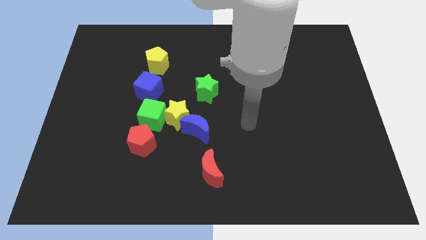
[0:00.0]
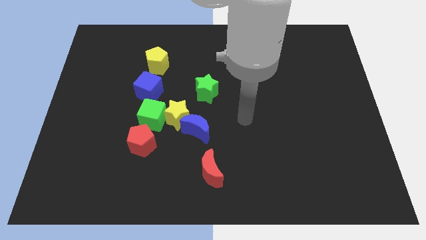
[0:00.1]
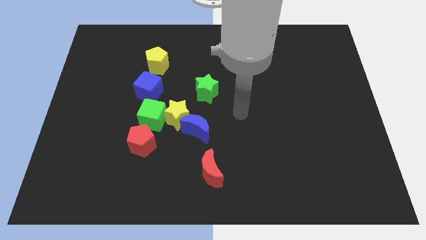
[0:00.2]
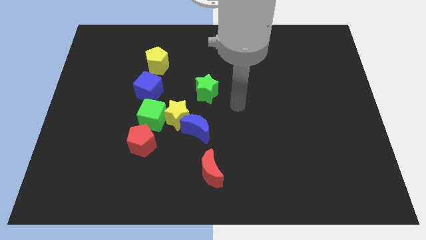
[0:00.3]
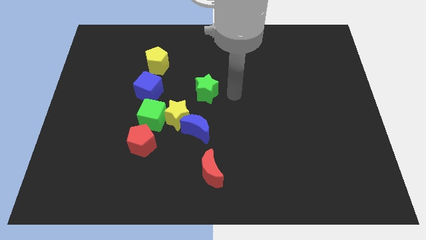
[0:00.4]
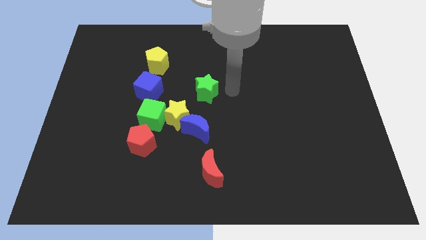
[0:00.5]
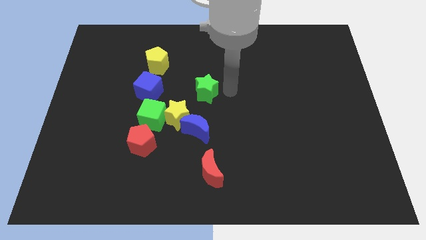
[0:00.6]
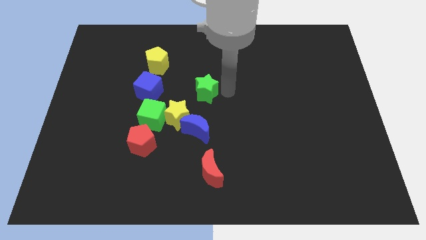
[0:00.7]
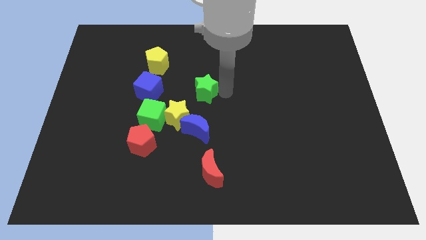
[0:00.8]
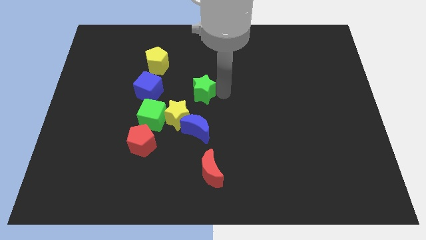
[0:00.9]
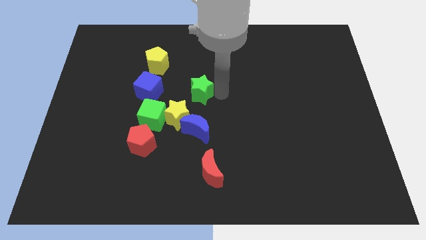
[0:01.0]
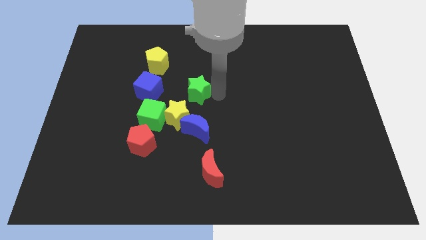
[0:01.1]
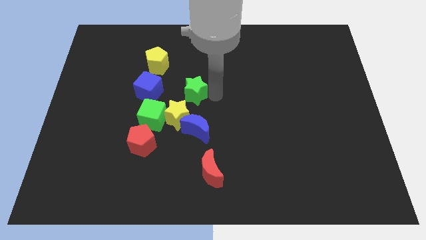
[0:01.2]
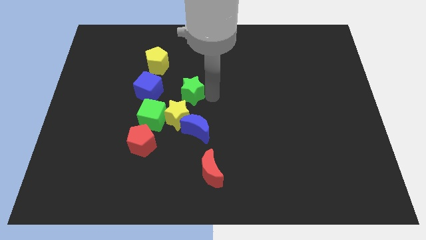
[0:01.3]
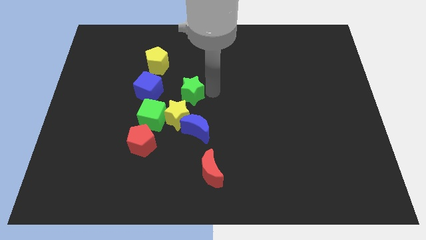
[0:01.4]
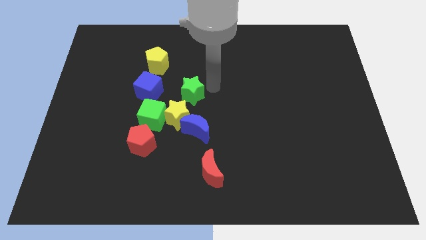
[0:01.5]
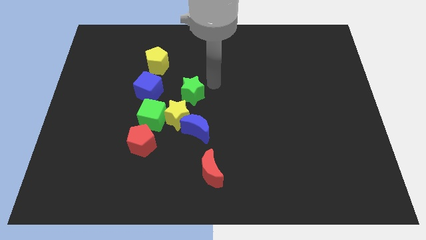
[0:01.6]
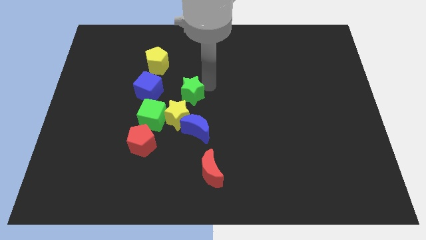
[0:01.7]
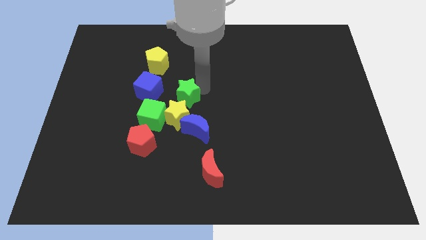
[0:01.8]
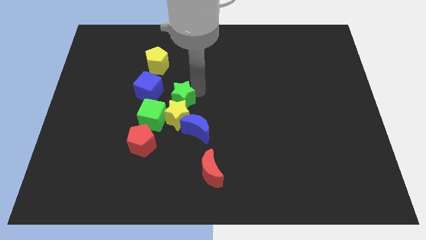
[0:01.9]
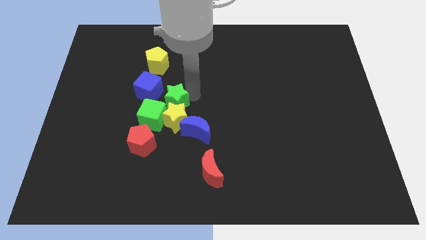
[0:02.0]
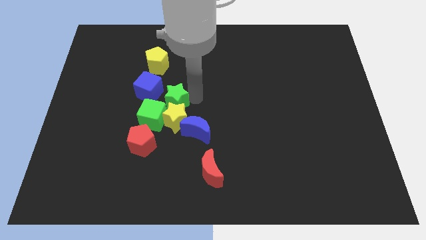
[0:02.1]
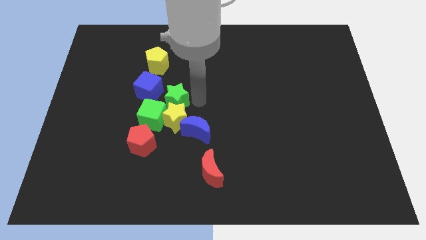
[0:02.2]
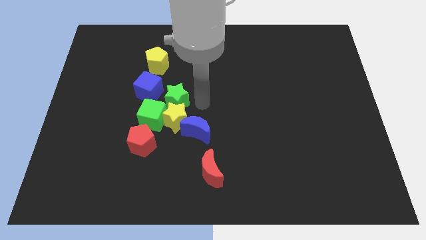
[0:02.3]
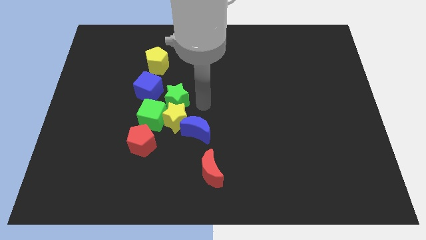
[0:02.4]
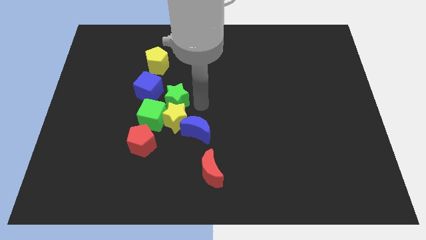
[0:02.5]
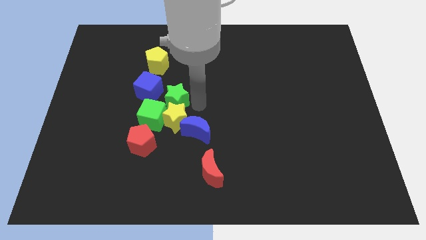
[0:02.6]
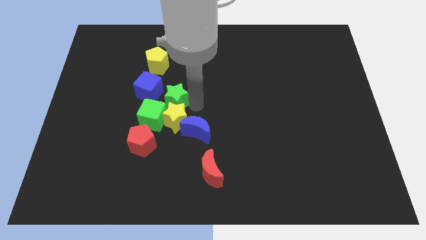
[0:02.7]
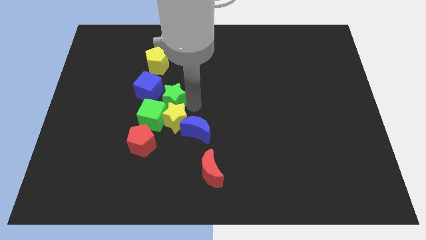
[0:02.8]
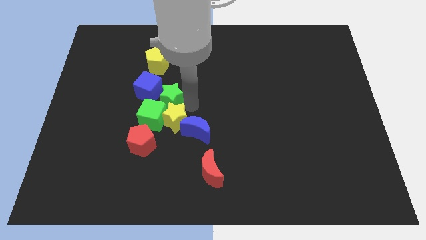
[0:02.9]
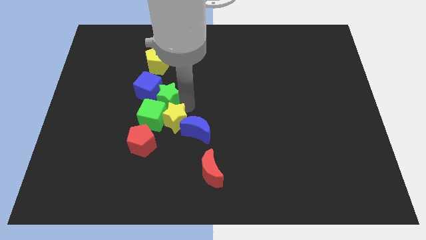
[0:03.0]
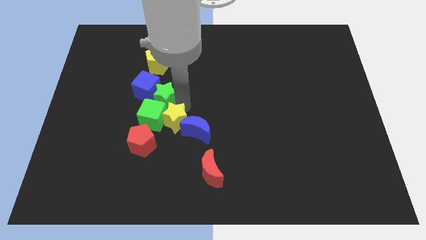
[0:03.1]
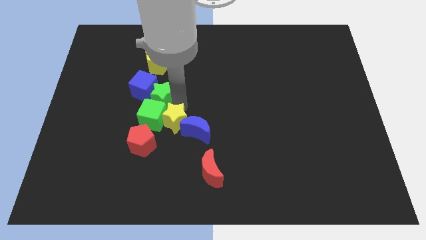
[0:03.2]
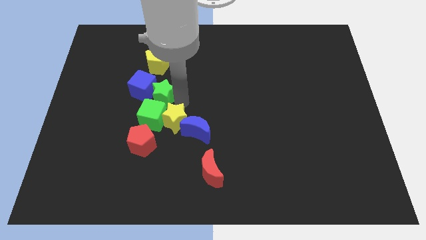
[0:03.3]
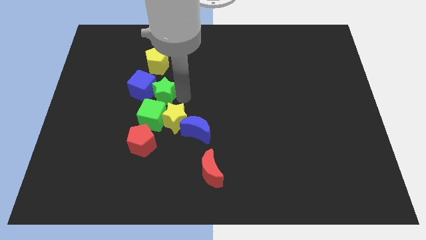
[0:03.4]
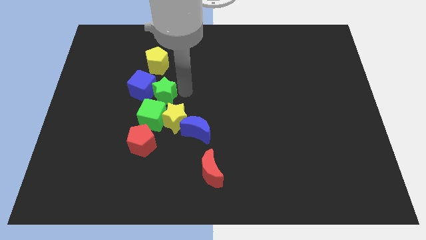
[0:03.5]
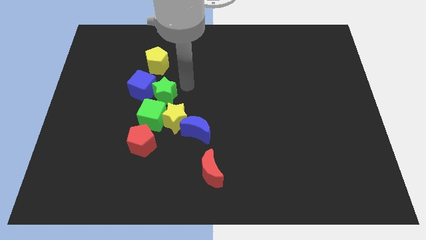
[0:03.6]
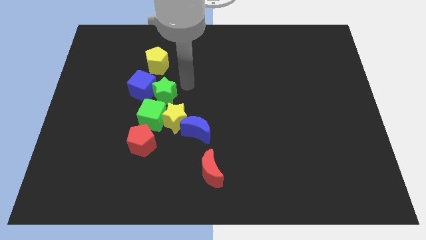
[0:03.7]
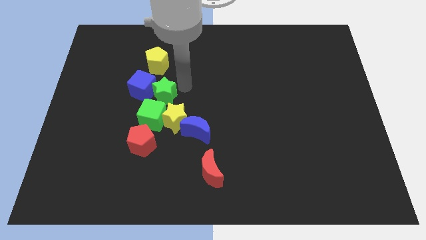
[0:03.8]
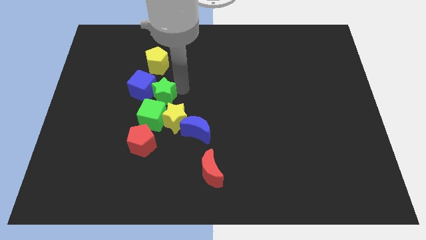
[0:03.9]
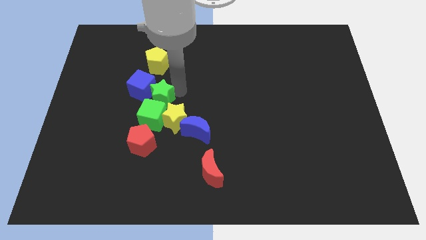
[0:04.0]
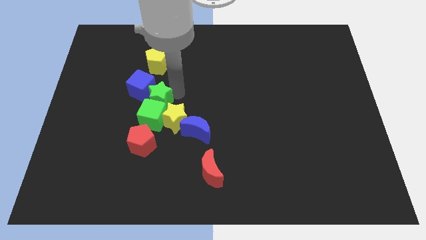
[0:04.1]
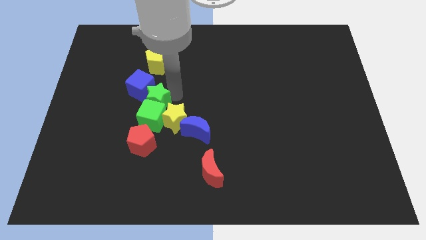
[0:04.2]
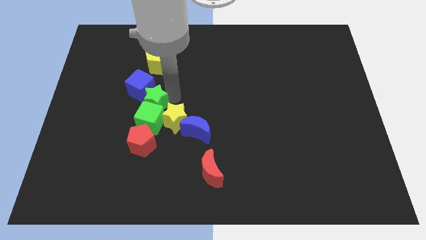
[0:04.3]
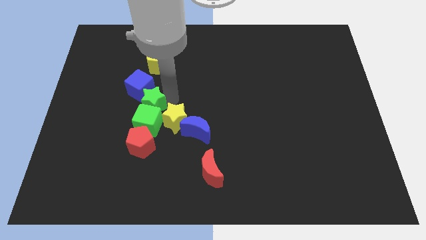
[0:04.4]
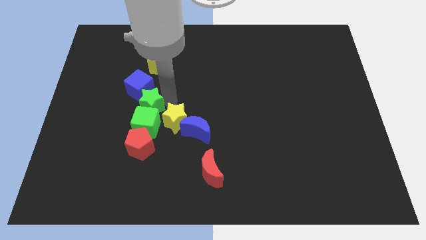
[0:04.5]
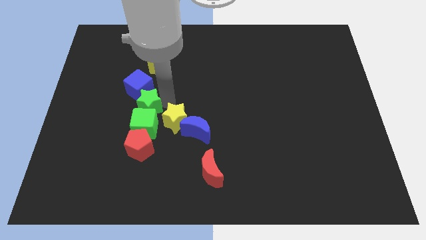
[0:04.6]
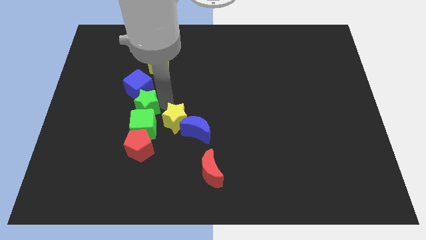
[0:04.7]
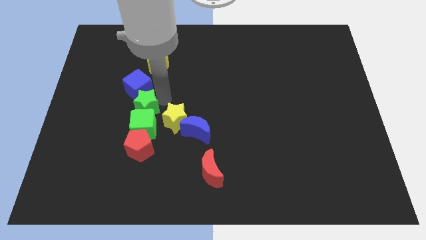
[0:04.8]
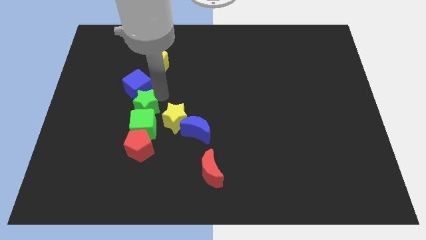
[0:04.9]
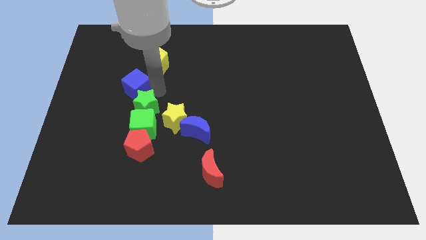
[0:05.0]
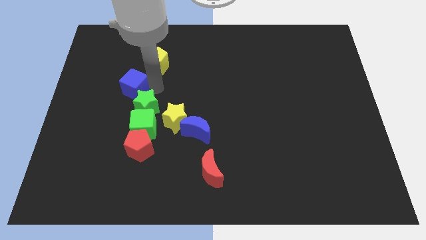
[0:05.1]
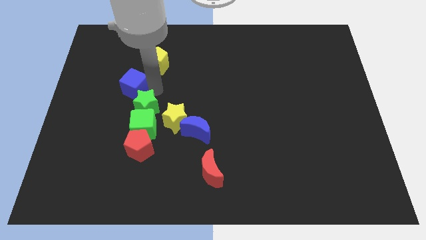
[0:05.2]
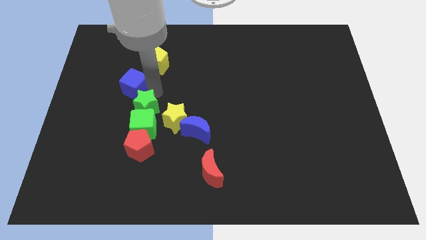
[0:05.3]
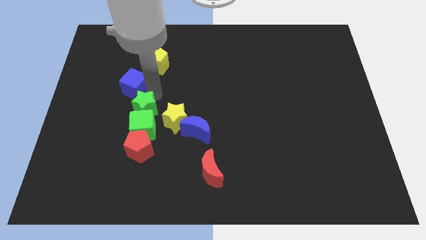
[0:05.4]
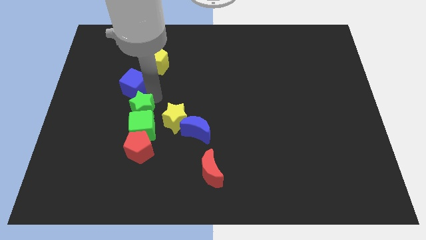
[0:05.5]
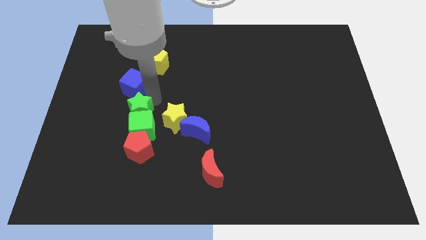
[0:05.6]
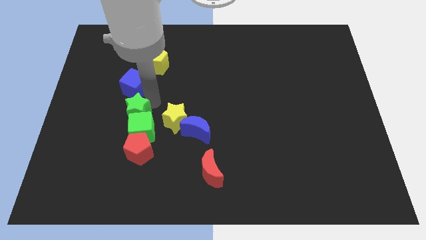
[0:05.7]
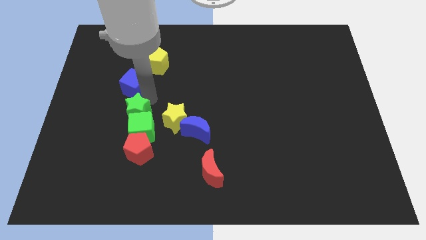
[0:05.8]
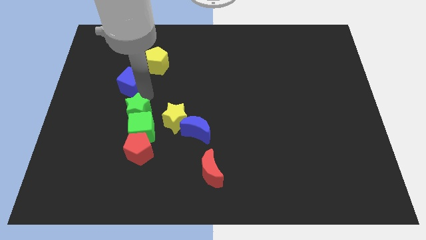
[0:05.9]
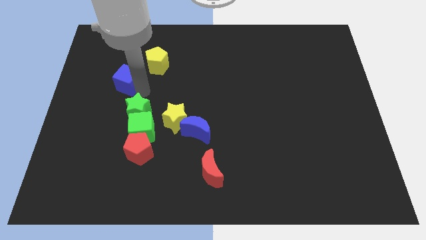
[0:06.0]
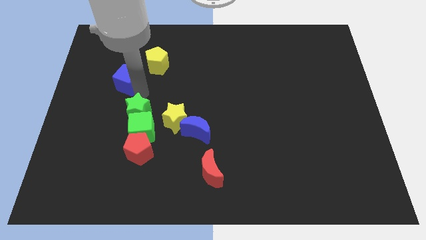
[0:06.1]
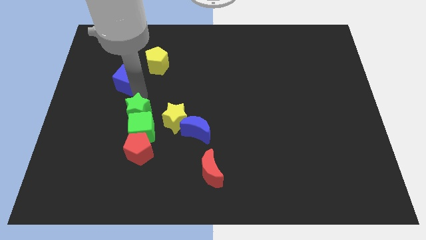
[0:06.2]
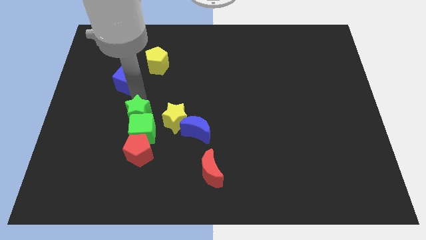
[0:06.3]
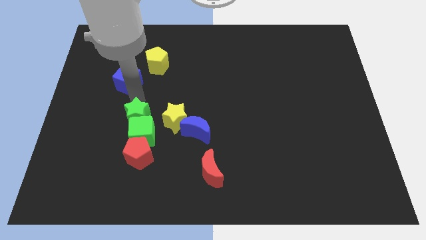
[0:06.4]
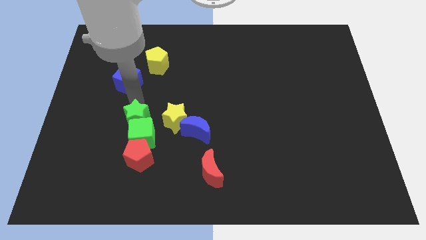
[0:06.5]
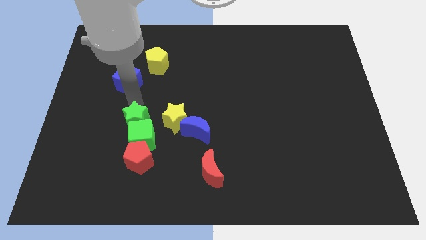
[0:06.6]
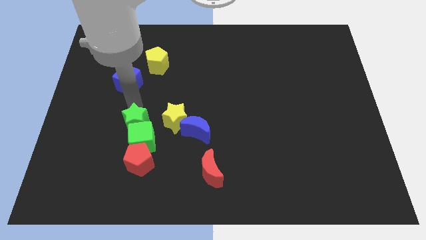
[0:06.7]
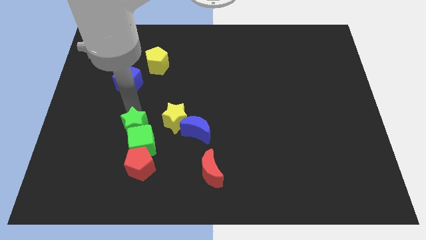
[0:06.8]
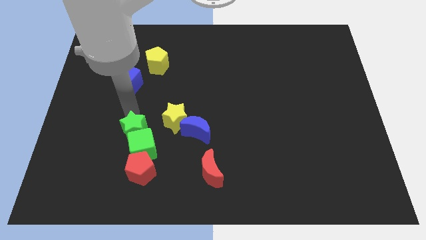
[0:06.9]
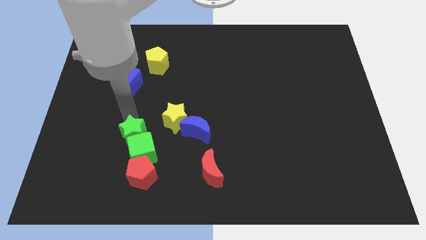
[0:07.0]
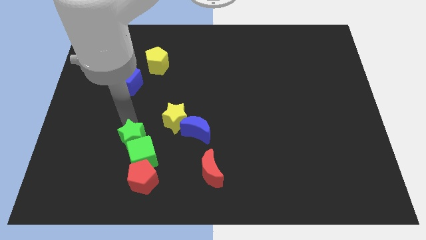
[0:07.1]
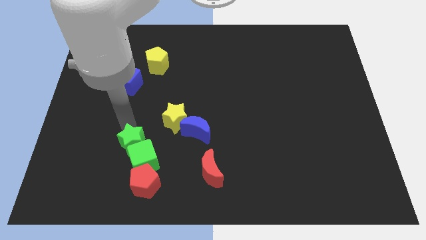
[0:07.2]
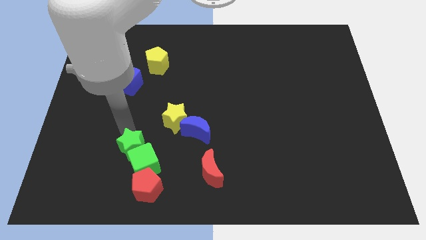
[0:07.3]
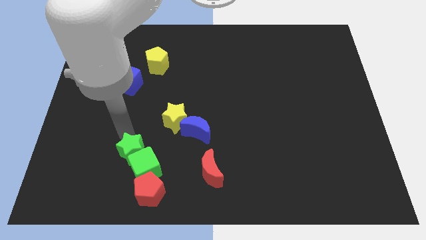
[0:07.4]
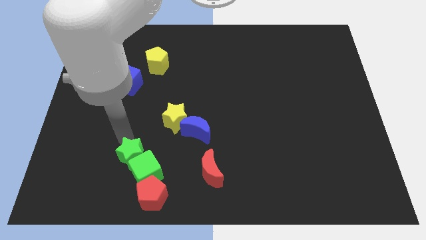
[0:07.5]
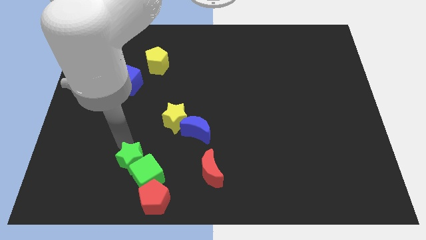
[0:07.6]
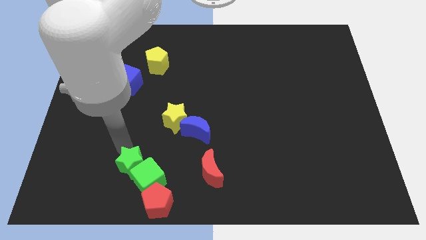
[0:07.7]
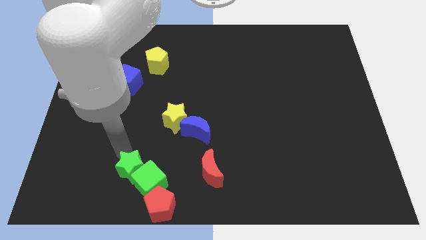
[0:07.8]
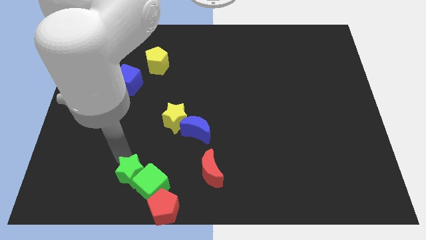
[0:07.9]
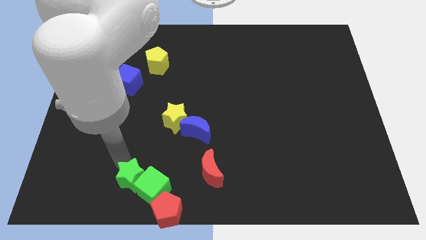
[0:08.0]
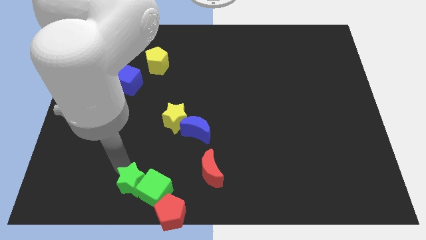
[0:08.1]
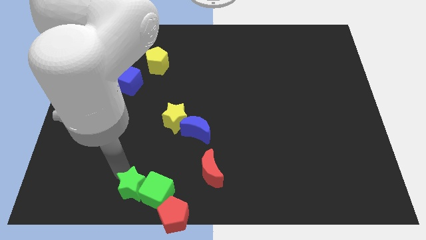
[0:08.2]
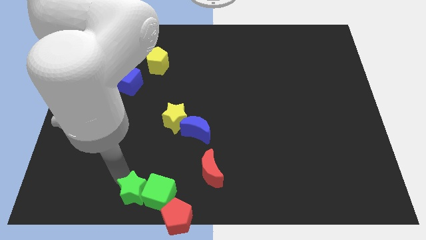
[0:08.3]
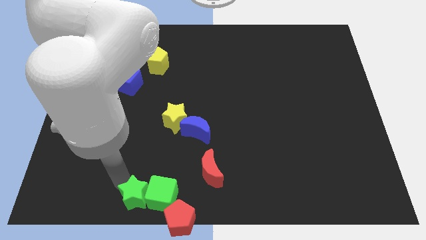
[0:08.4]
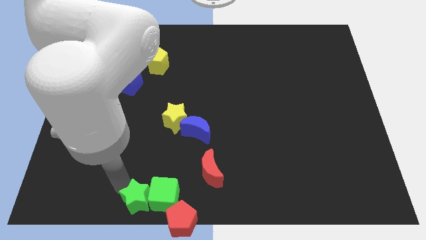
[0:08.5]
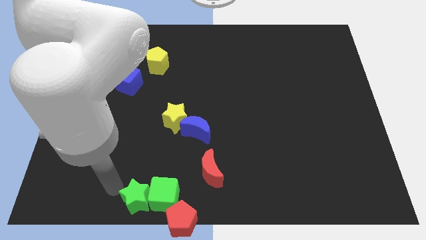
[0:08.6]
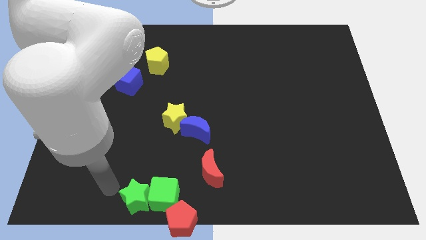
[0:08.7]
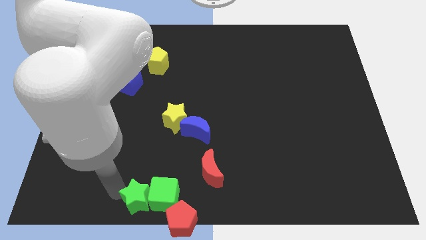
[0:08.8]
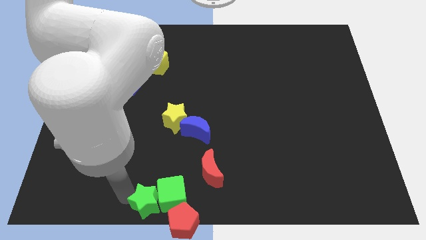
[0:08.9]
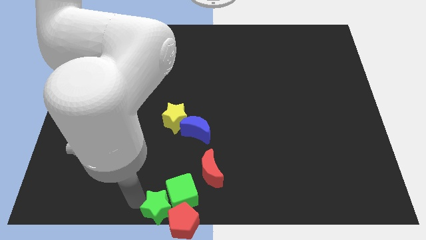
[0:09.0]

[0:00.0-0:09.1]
push the green star to the red pentagon
